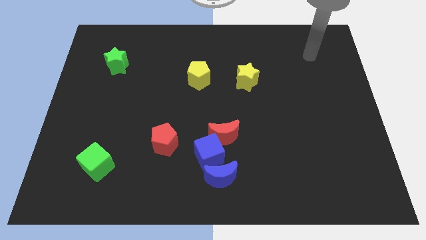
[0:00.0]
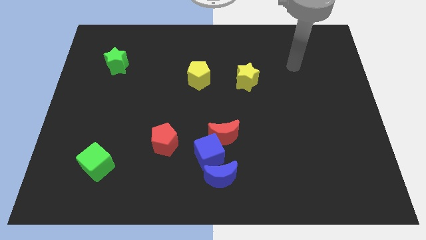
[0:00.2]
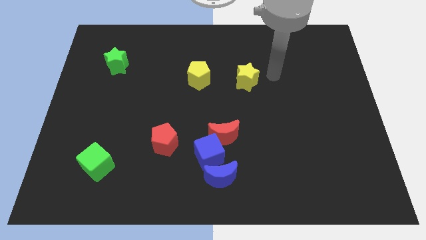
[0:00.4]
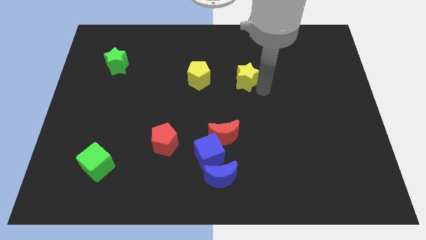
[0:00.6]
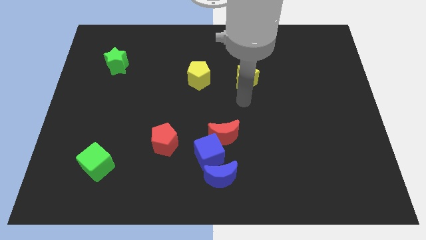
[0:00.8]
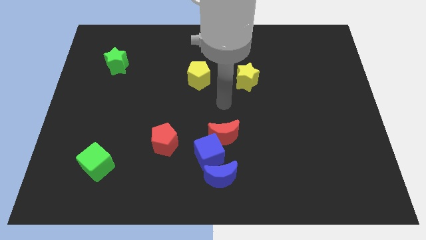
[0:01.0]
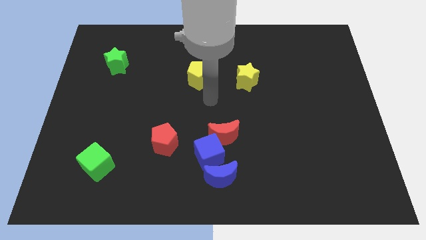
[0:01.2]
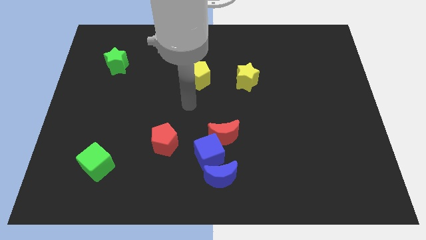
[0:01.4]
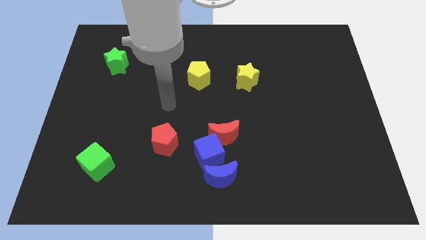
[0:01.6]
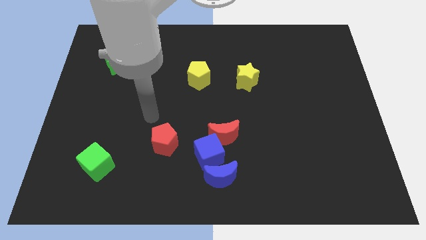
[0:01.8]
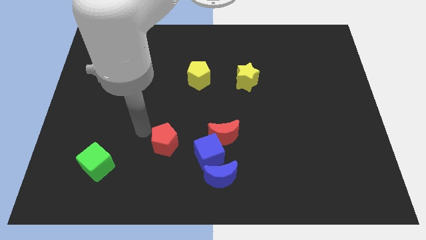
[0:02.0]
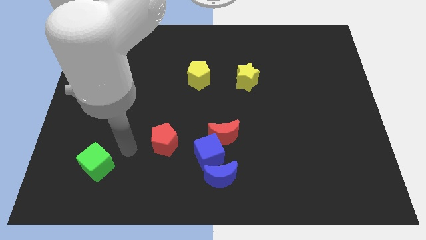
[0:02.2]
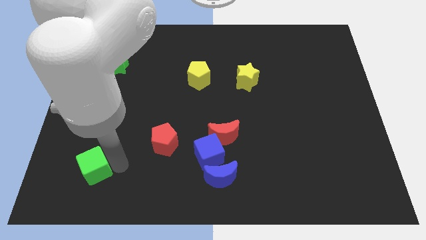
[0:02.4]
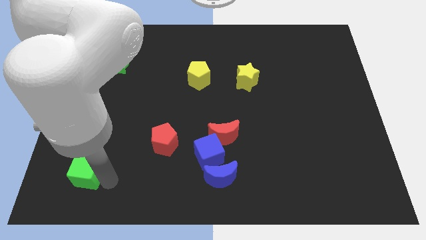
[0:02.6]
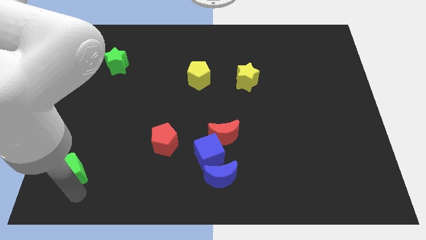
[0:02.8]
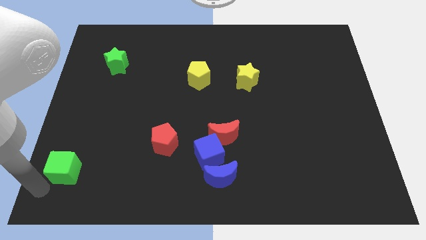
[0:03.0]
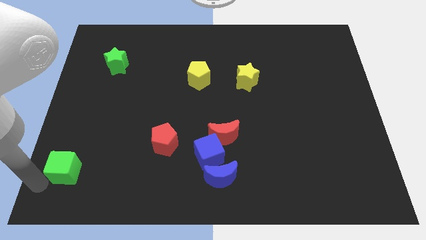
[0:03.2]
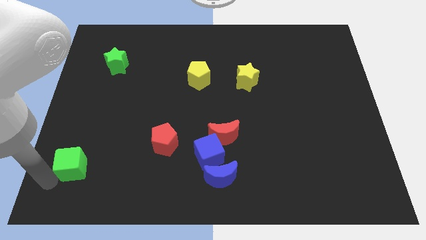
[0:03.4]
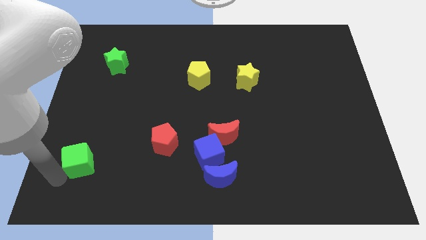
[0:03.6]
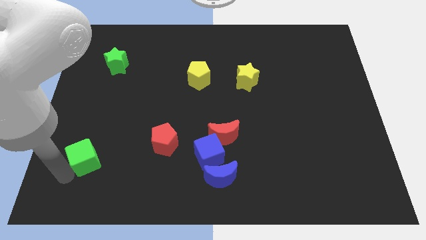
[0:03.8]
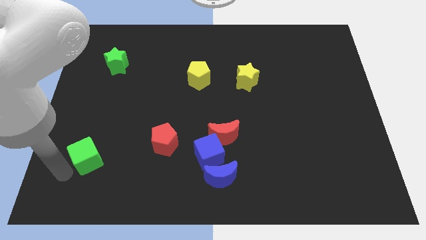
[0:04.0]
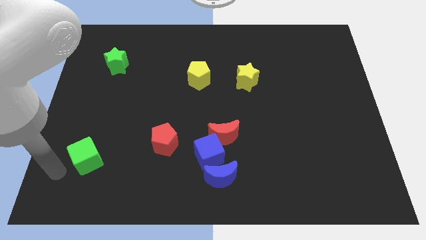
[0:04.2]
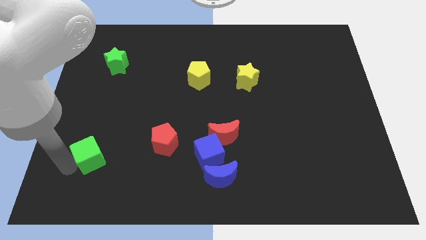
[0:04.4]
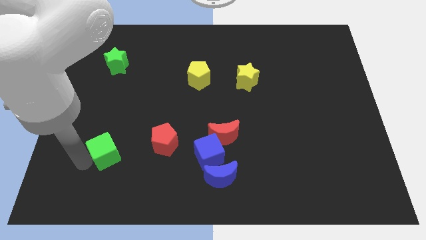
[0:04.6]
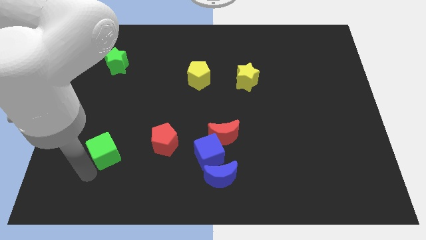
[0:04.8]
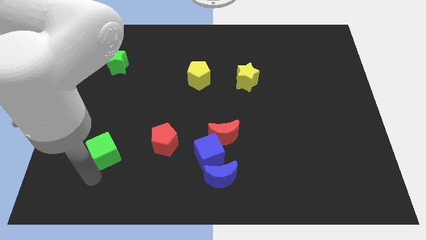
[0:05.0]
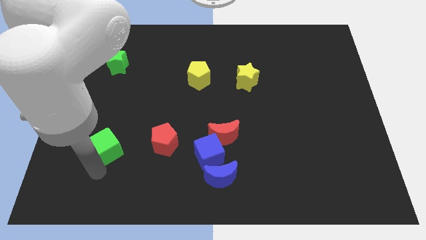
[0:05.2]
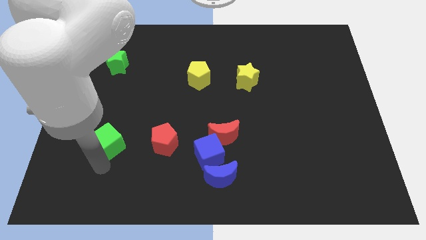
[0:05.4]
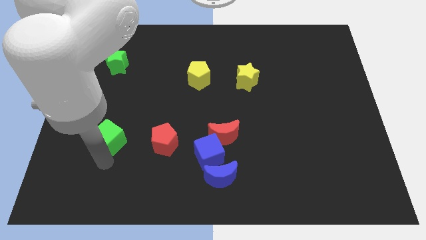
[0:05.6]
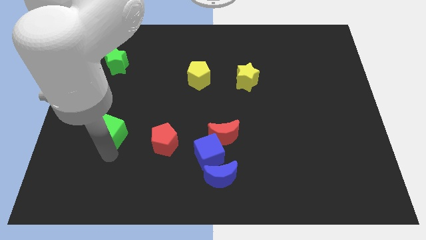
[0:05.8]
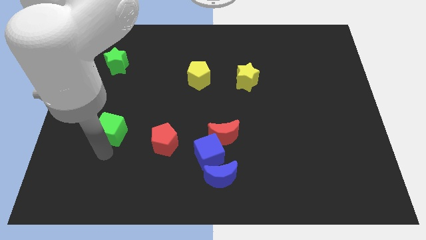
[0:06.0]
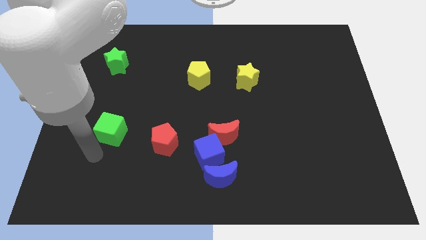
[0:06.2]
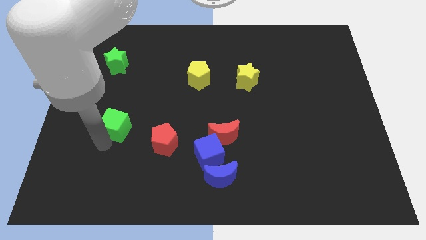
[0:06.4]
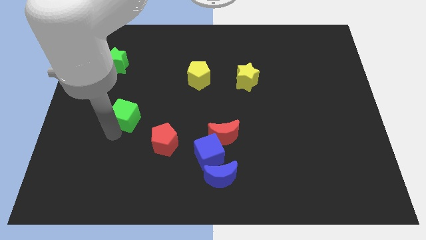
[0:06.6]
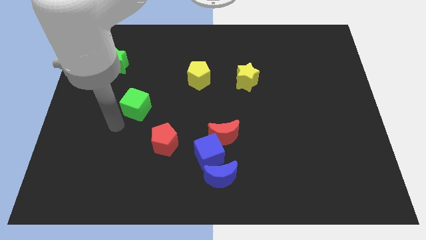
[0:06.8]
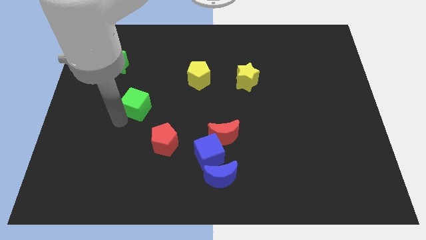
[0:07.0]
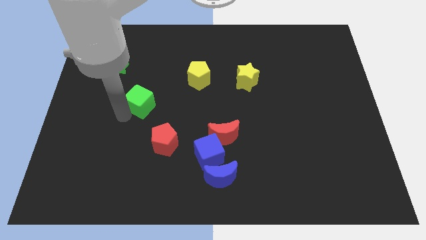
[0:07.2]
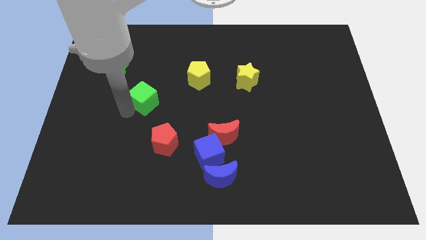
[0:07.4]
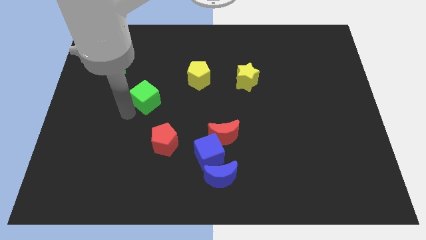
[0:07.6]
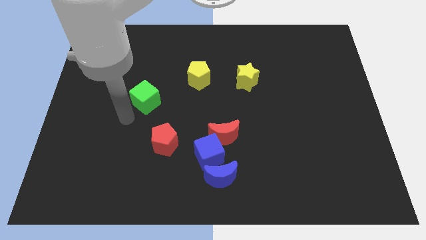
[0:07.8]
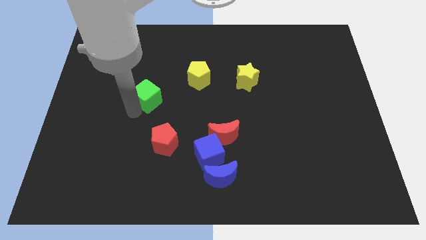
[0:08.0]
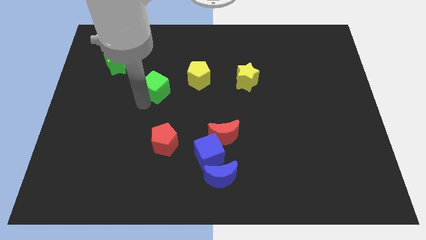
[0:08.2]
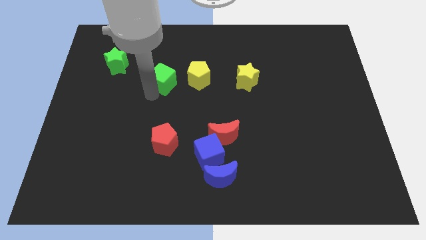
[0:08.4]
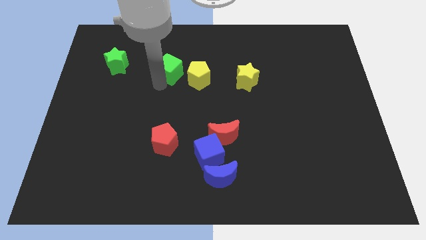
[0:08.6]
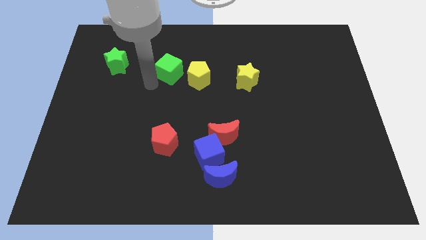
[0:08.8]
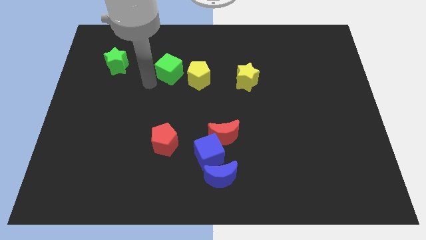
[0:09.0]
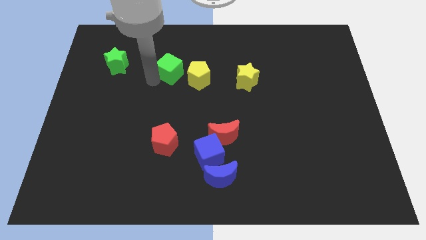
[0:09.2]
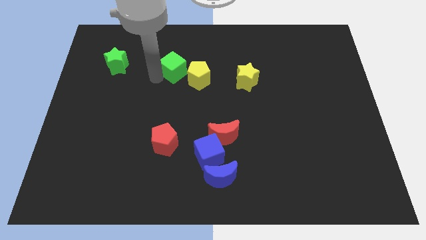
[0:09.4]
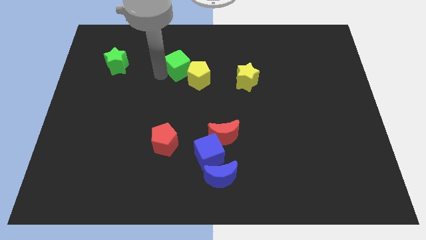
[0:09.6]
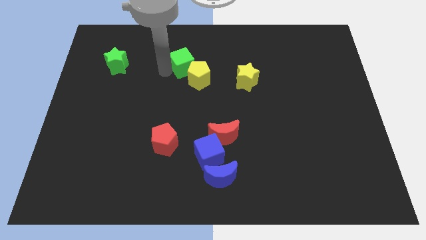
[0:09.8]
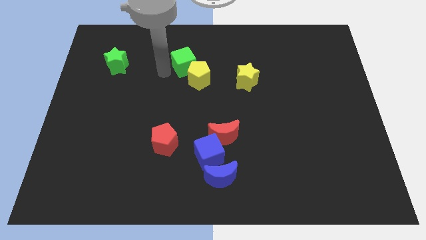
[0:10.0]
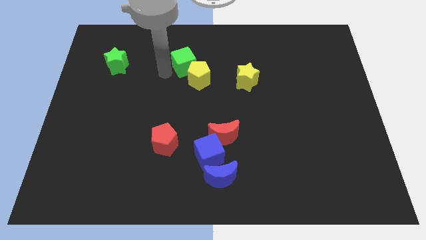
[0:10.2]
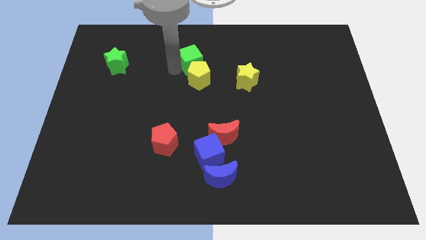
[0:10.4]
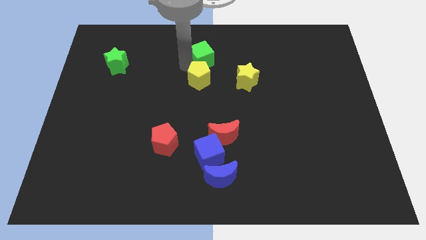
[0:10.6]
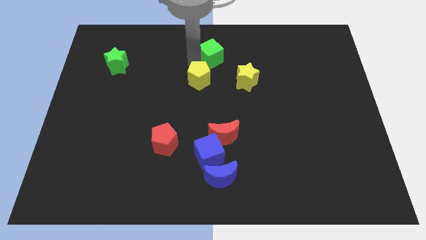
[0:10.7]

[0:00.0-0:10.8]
put the green cube to the towards your base

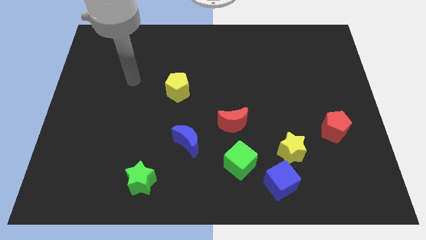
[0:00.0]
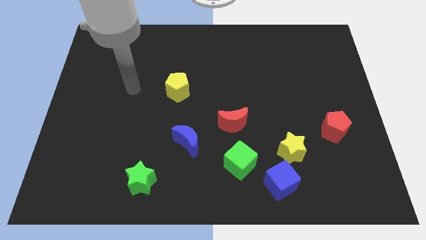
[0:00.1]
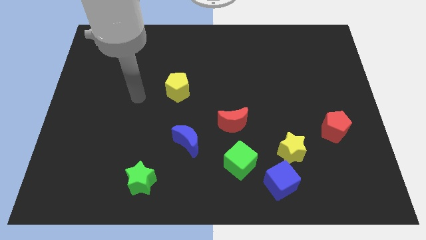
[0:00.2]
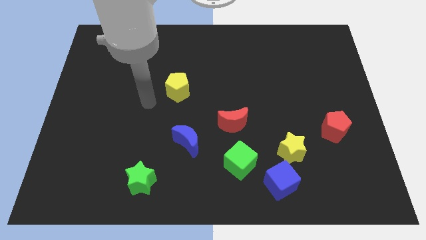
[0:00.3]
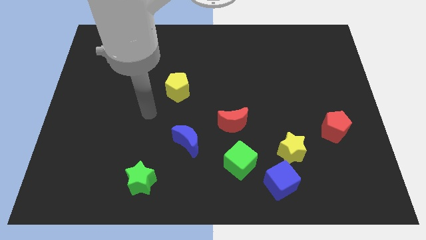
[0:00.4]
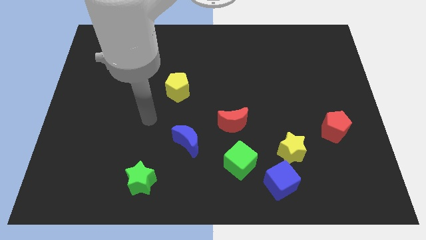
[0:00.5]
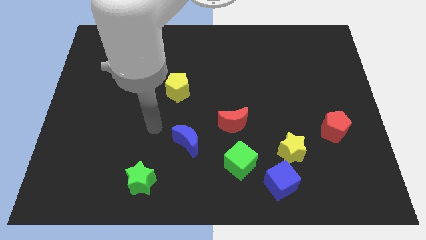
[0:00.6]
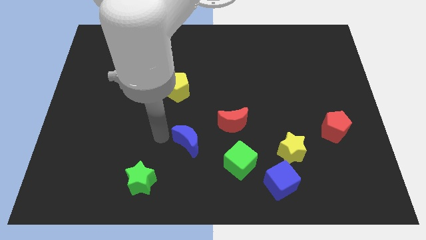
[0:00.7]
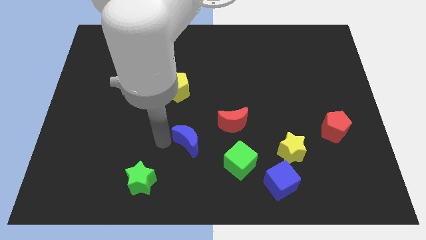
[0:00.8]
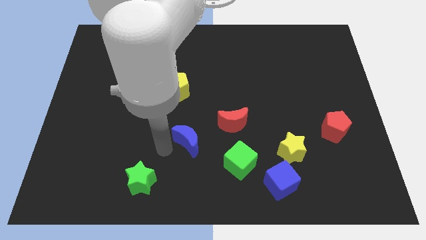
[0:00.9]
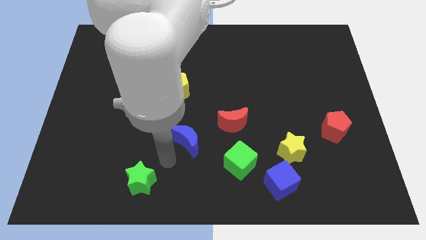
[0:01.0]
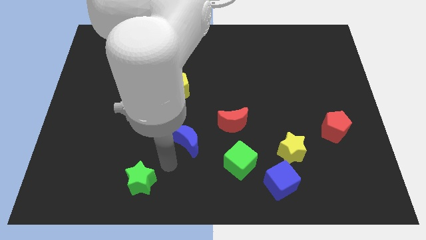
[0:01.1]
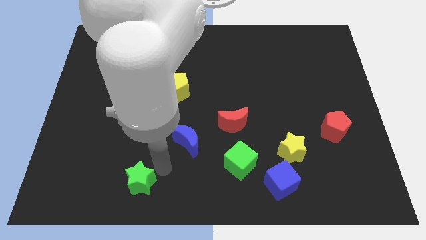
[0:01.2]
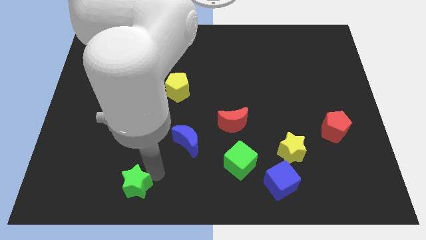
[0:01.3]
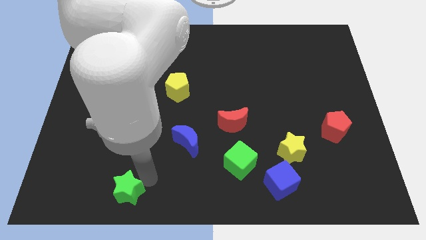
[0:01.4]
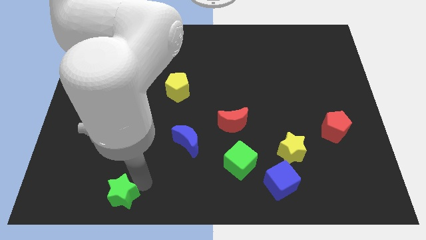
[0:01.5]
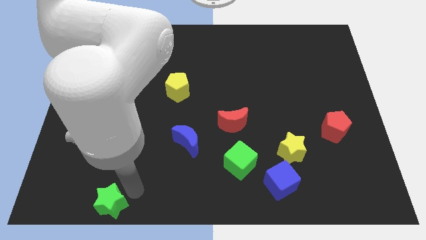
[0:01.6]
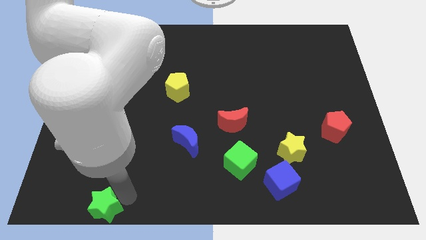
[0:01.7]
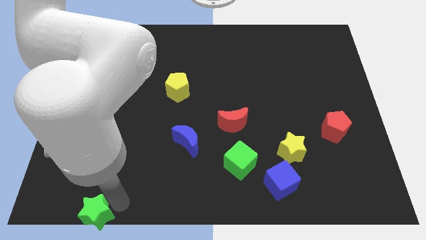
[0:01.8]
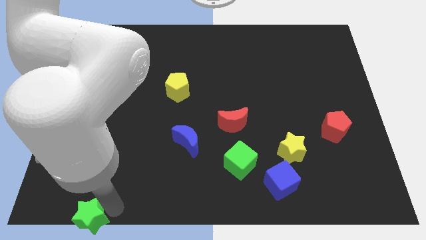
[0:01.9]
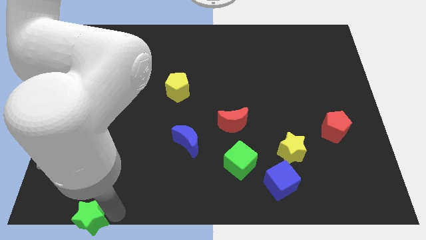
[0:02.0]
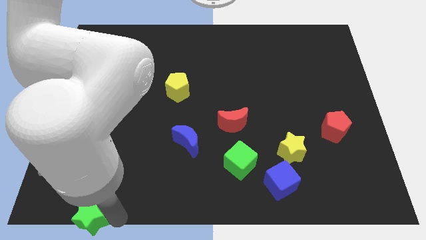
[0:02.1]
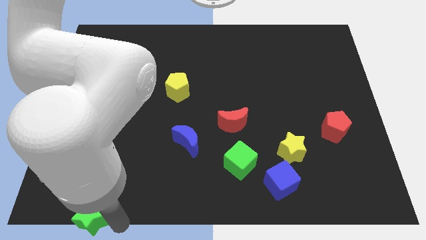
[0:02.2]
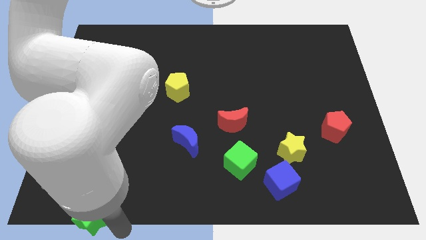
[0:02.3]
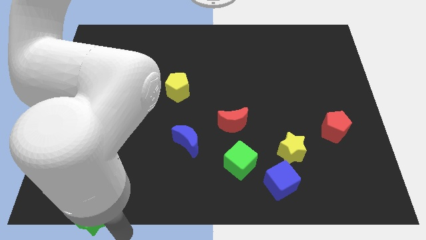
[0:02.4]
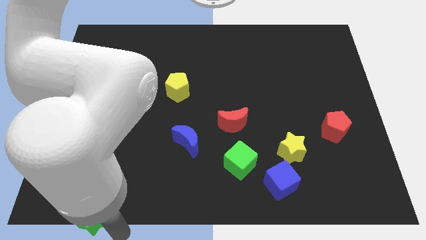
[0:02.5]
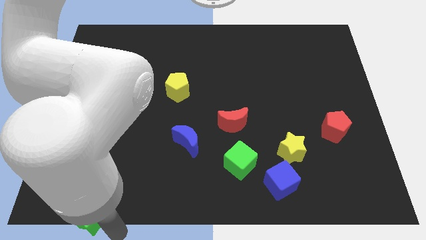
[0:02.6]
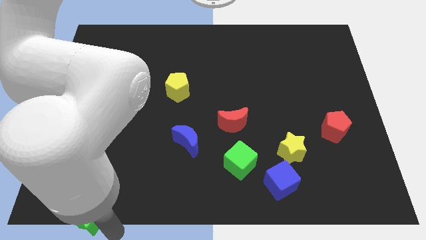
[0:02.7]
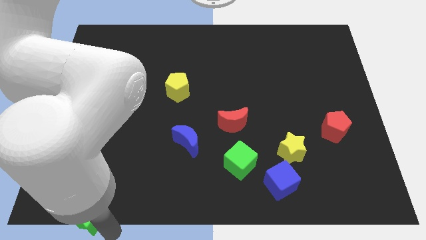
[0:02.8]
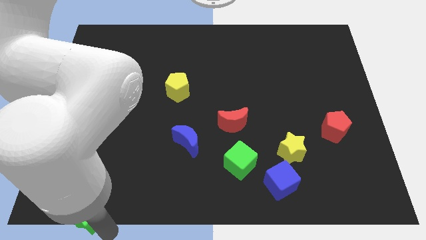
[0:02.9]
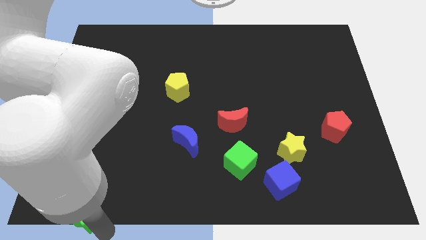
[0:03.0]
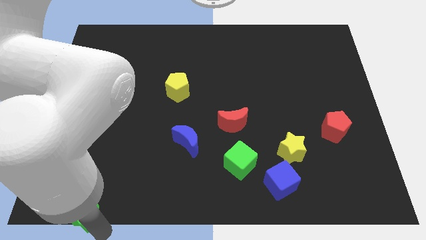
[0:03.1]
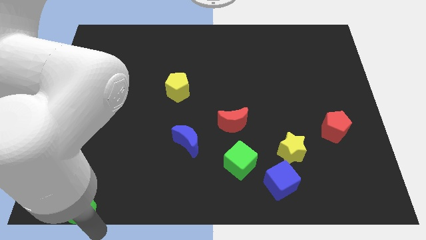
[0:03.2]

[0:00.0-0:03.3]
push the green star to the bottom left
